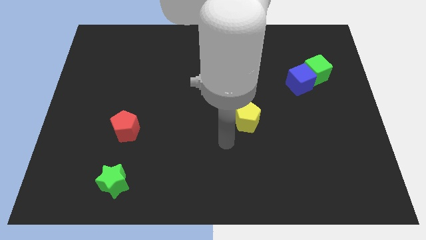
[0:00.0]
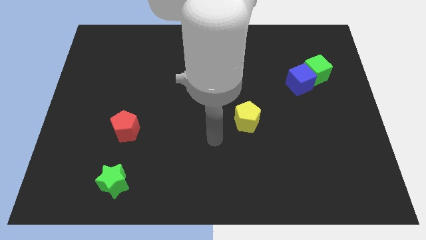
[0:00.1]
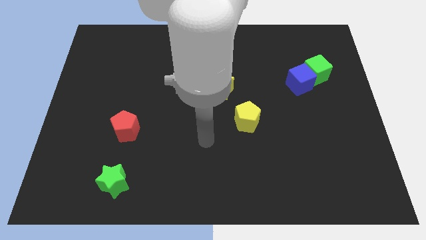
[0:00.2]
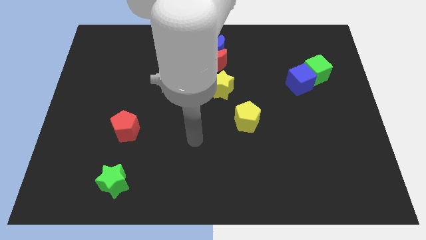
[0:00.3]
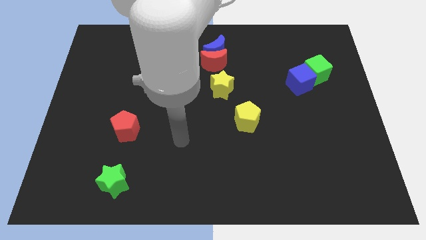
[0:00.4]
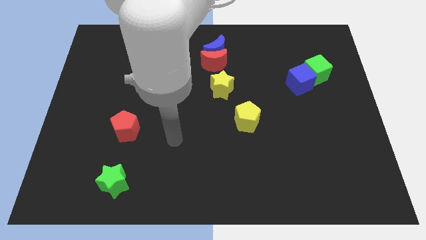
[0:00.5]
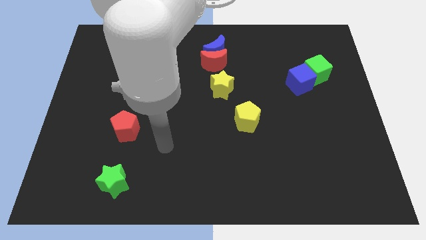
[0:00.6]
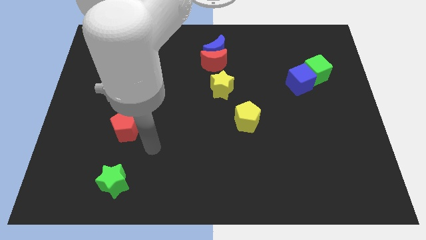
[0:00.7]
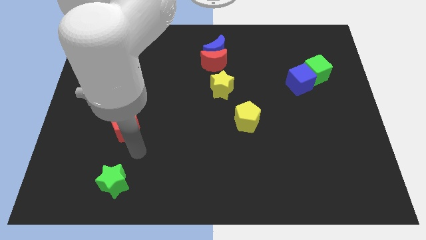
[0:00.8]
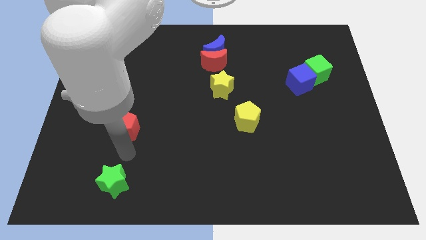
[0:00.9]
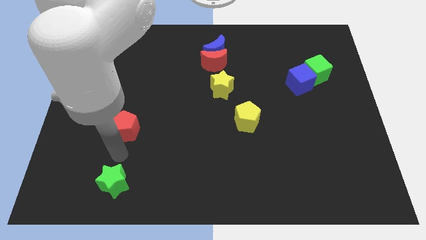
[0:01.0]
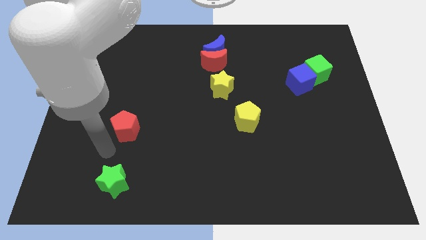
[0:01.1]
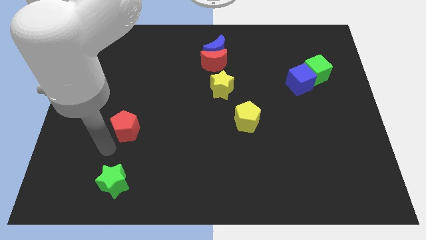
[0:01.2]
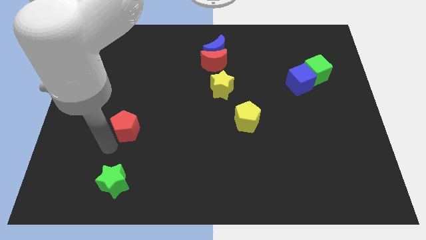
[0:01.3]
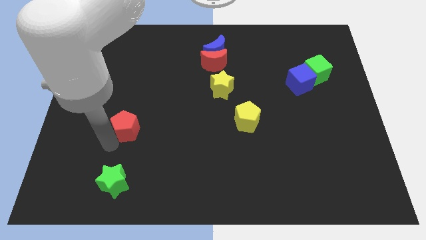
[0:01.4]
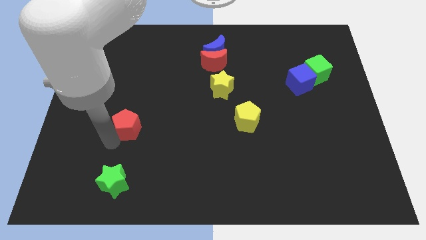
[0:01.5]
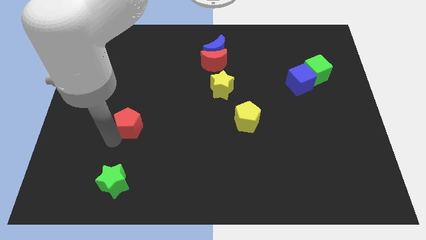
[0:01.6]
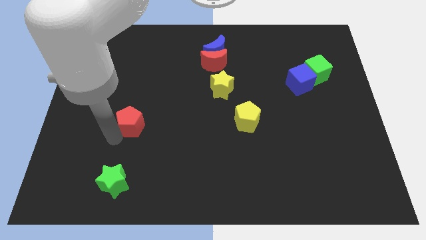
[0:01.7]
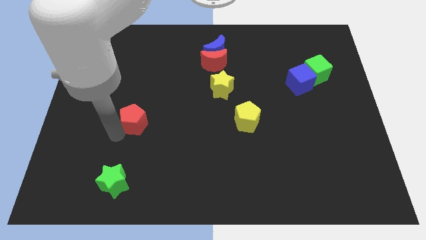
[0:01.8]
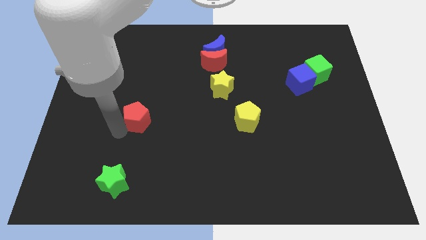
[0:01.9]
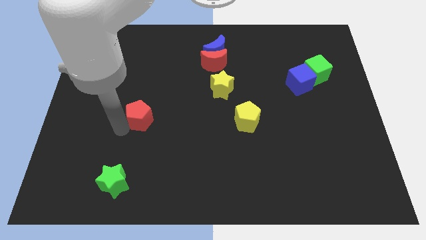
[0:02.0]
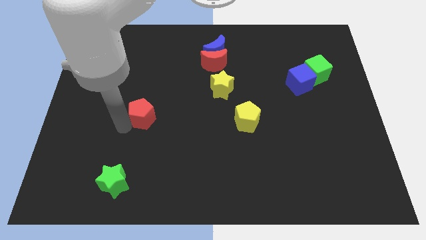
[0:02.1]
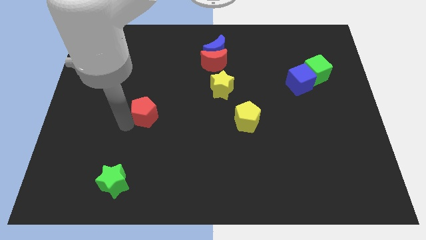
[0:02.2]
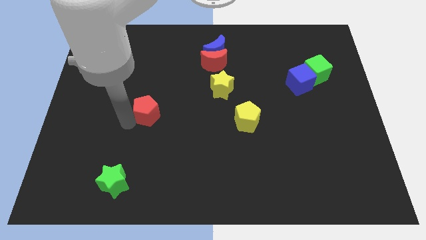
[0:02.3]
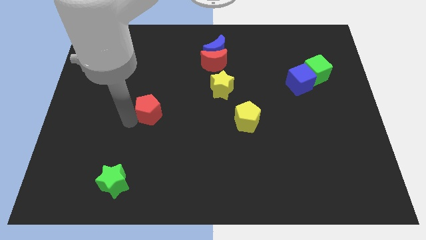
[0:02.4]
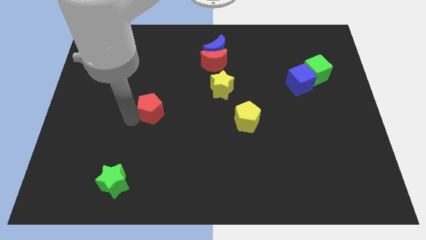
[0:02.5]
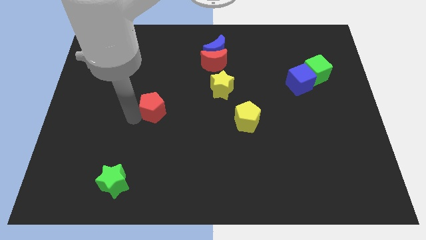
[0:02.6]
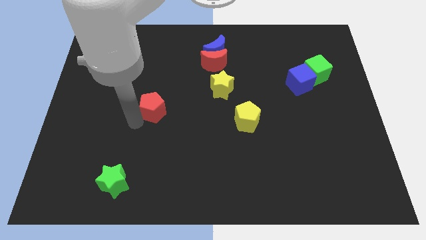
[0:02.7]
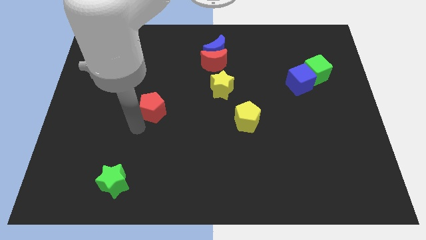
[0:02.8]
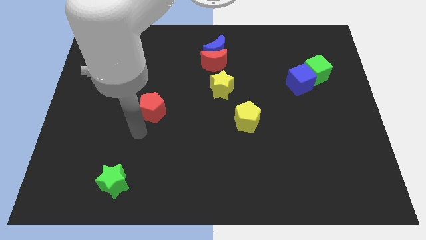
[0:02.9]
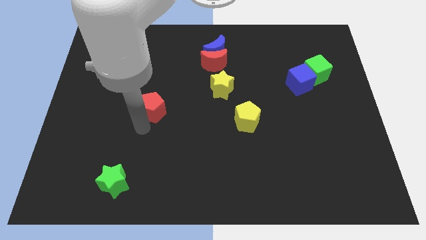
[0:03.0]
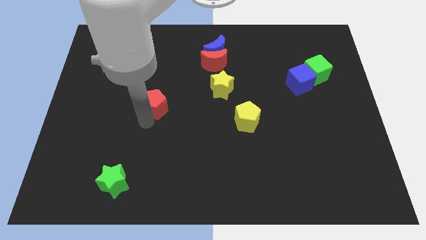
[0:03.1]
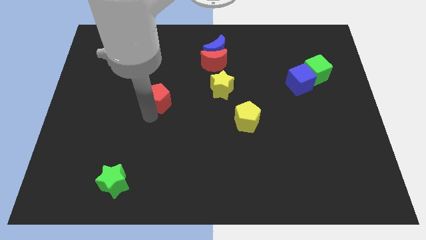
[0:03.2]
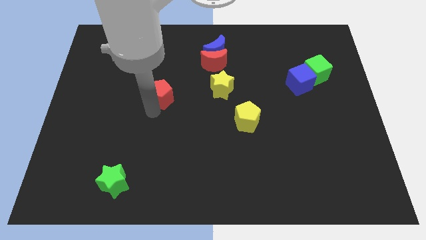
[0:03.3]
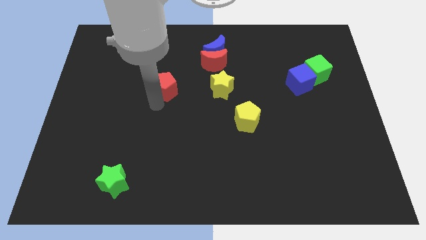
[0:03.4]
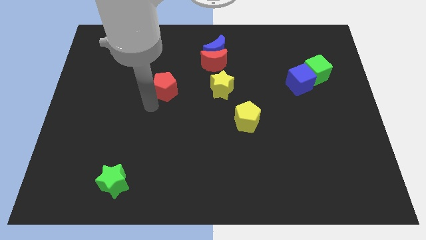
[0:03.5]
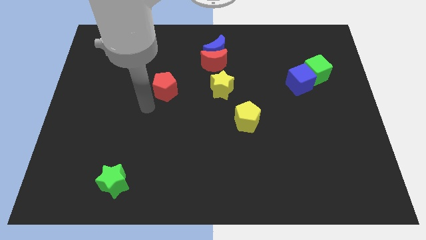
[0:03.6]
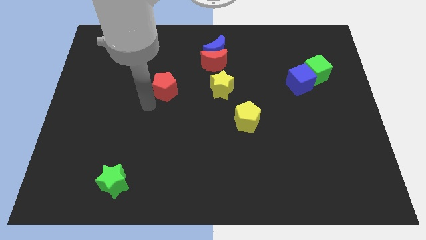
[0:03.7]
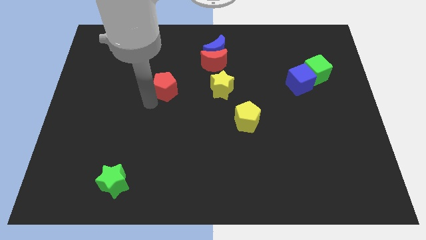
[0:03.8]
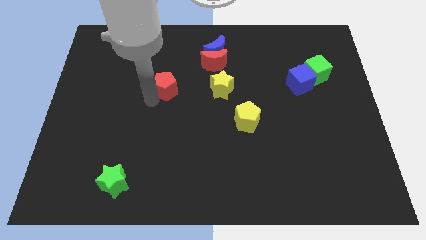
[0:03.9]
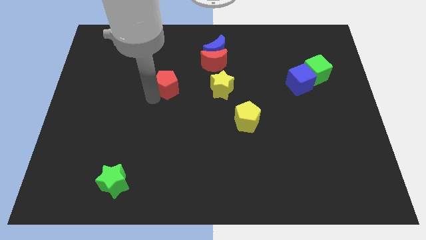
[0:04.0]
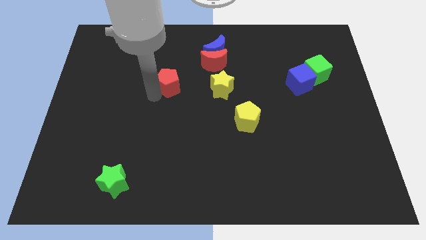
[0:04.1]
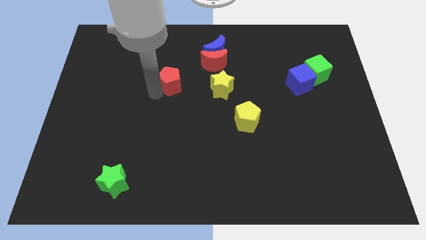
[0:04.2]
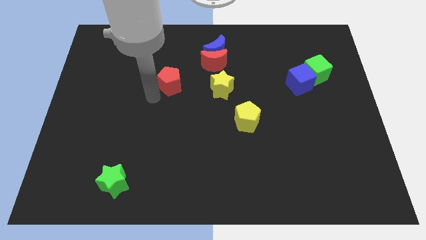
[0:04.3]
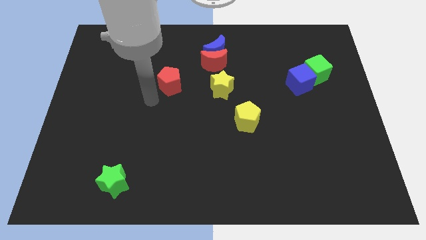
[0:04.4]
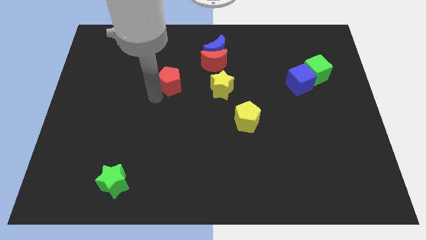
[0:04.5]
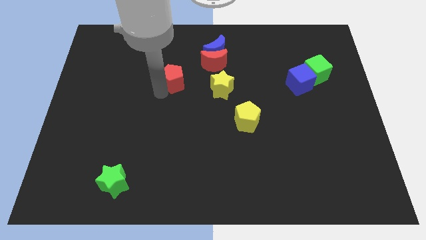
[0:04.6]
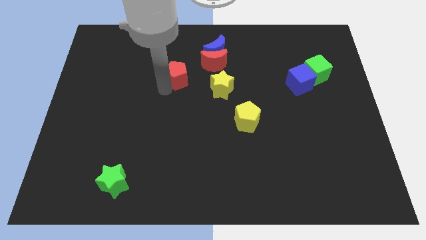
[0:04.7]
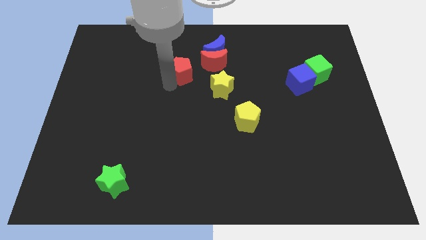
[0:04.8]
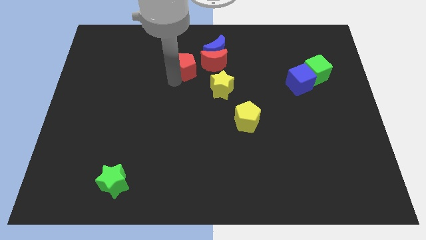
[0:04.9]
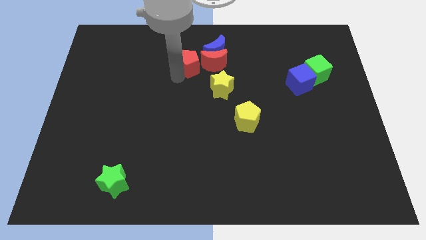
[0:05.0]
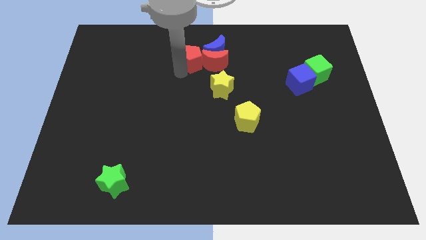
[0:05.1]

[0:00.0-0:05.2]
move the red pentagon towards the red moon

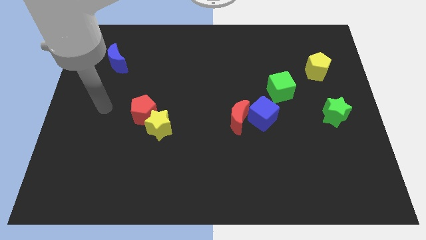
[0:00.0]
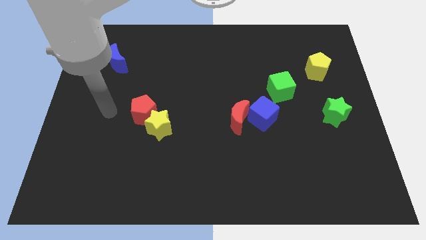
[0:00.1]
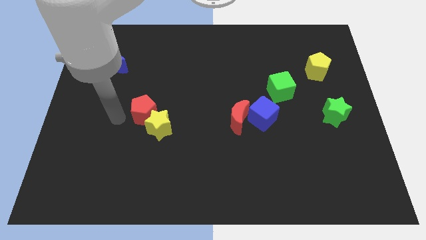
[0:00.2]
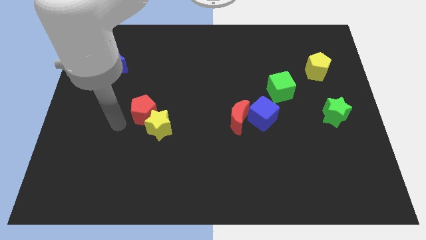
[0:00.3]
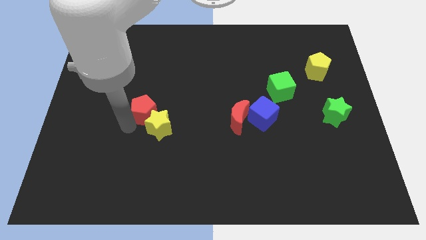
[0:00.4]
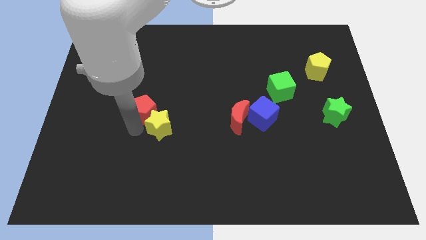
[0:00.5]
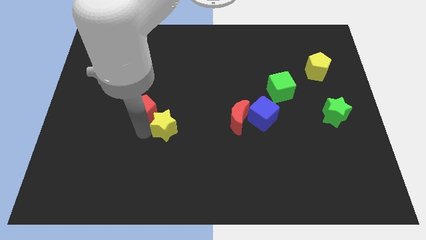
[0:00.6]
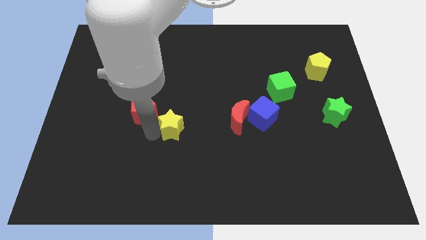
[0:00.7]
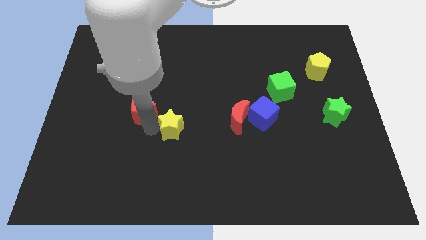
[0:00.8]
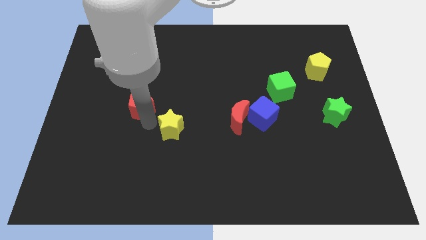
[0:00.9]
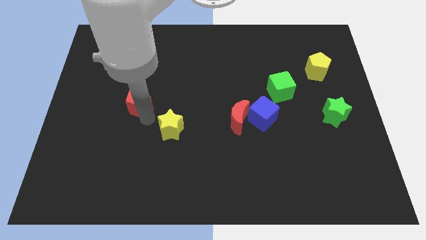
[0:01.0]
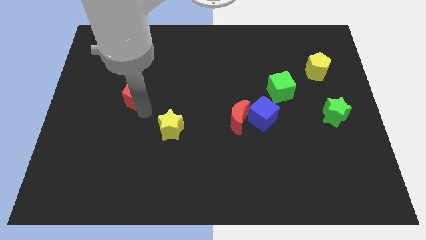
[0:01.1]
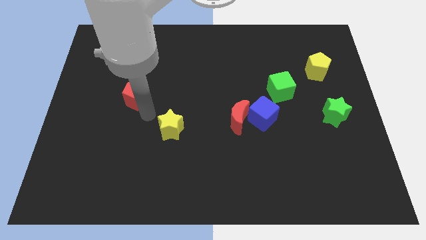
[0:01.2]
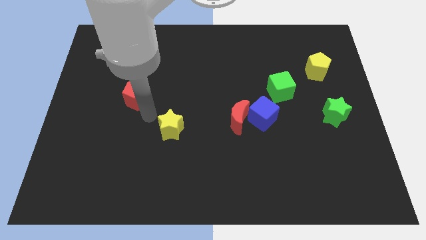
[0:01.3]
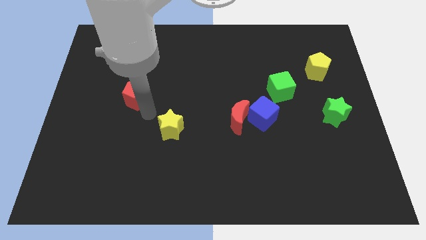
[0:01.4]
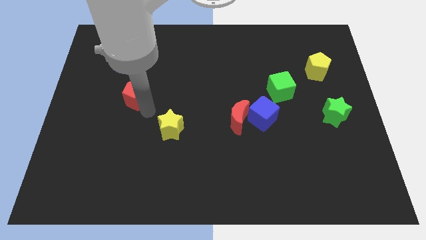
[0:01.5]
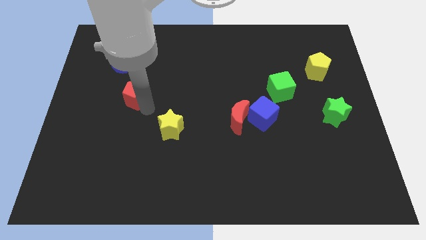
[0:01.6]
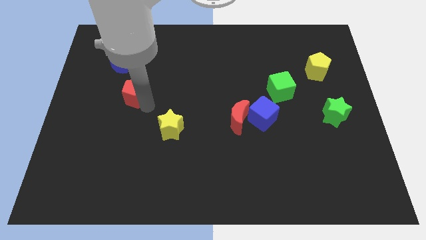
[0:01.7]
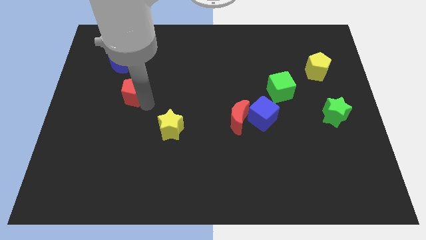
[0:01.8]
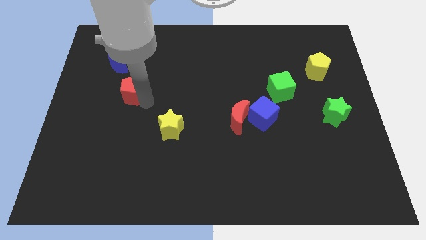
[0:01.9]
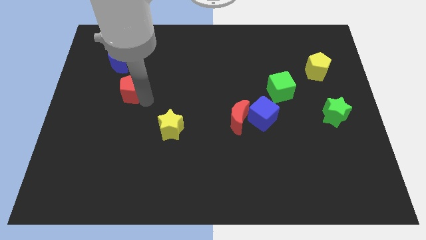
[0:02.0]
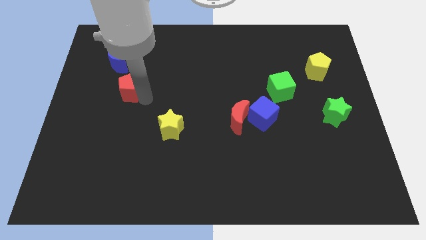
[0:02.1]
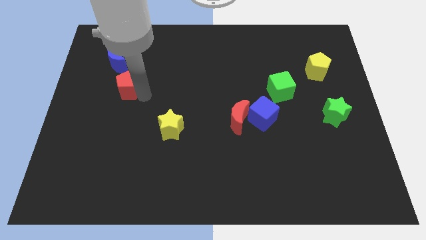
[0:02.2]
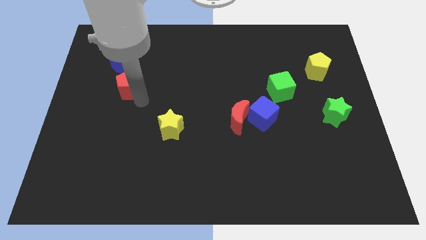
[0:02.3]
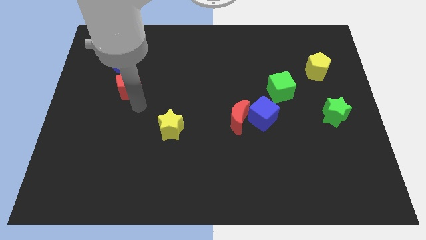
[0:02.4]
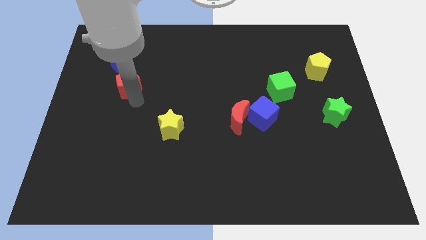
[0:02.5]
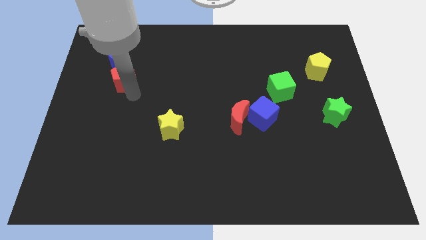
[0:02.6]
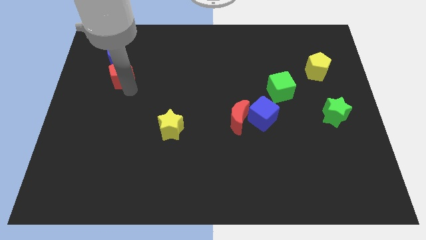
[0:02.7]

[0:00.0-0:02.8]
put the red pentagon towards the blue moon
